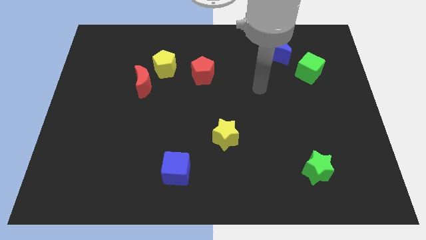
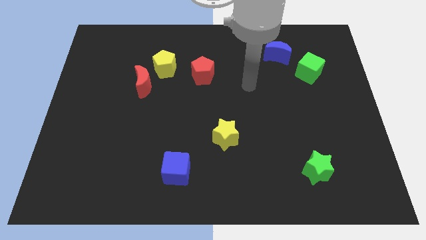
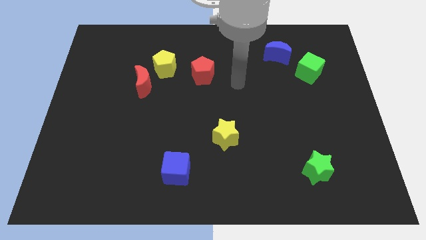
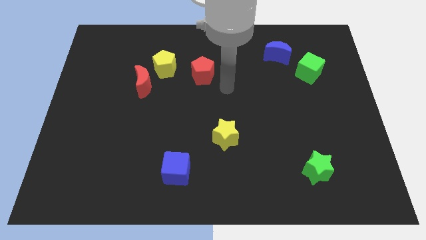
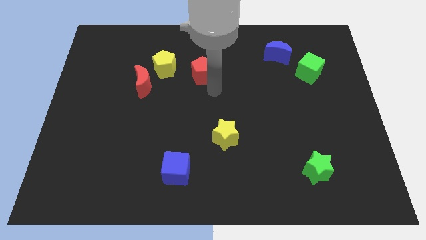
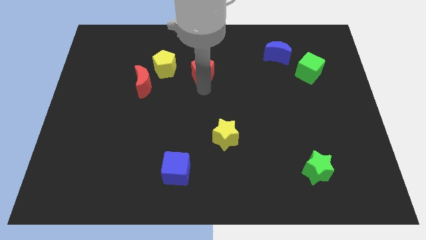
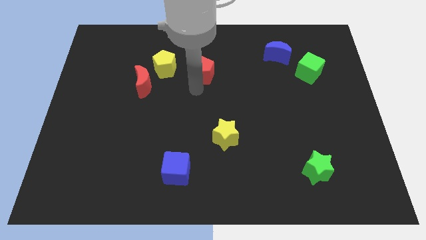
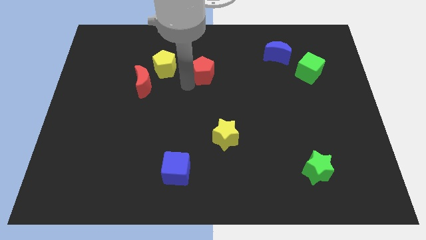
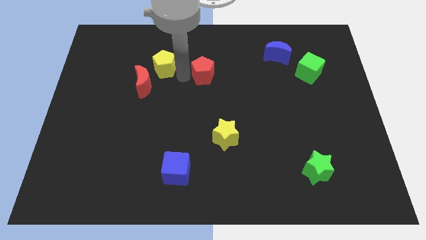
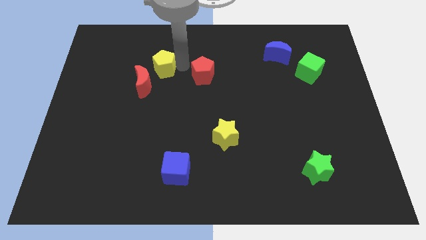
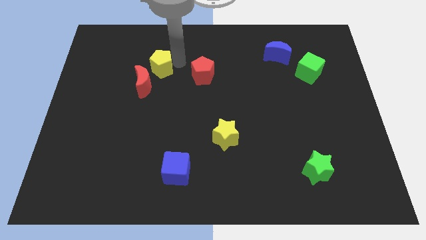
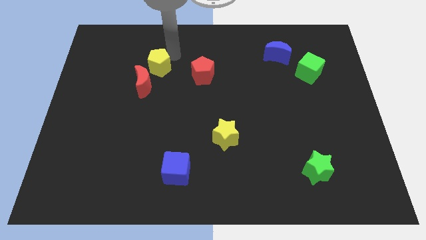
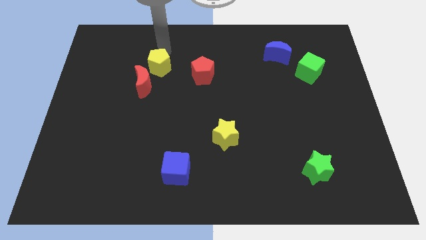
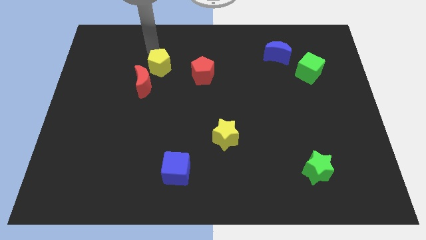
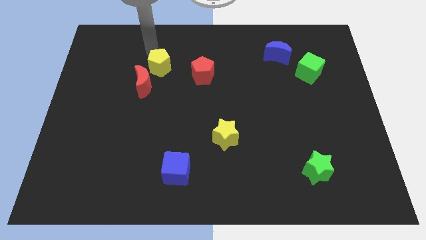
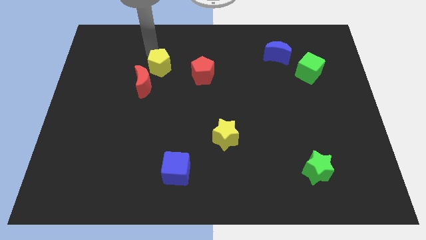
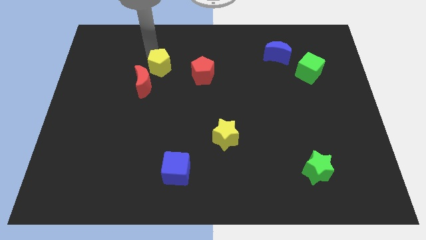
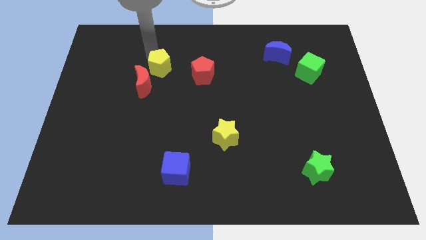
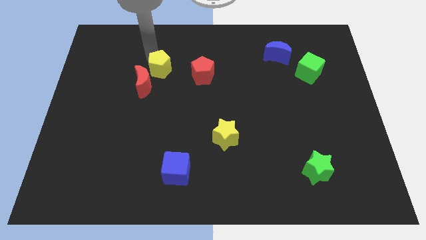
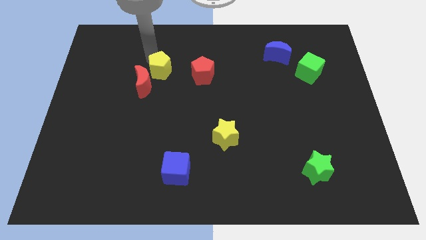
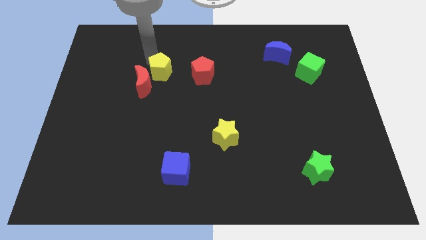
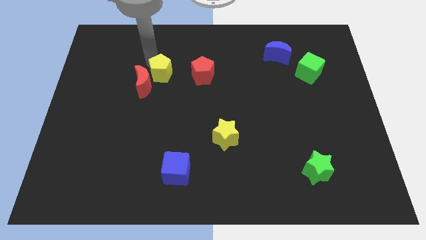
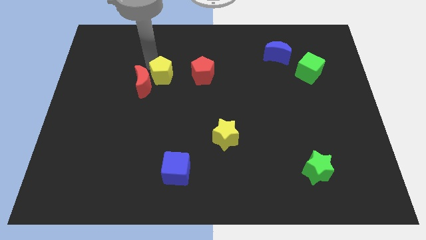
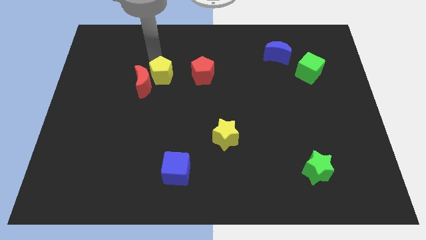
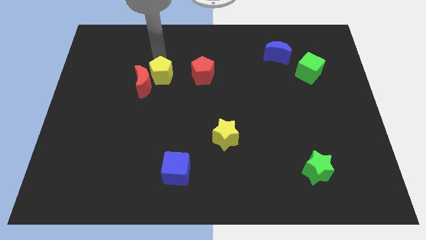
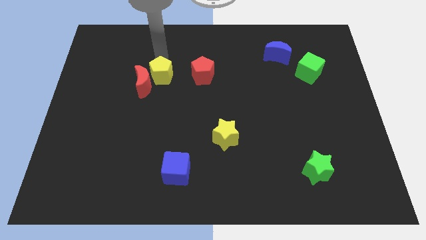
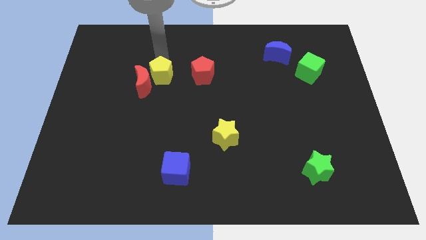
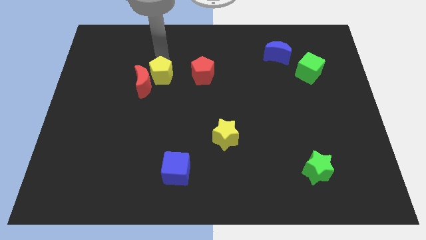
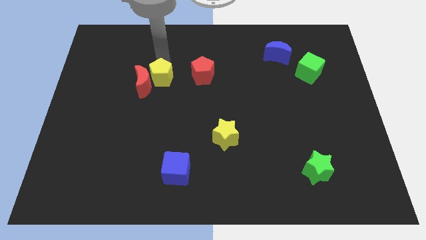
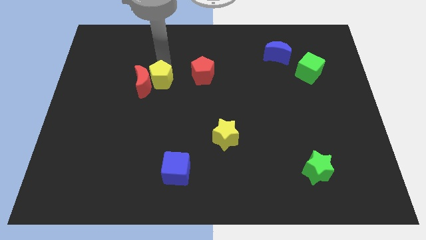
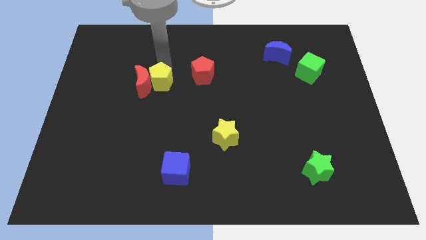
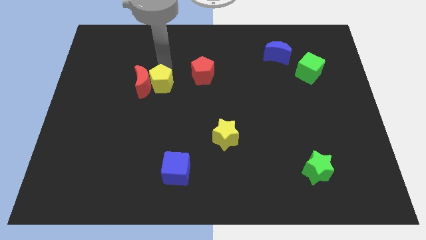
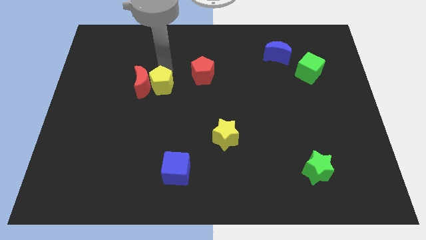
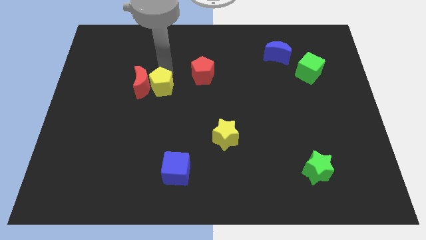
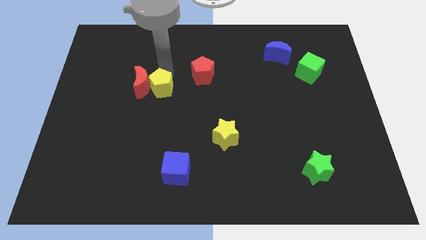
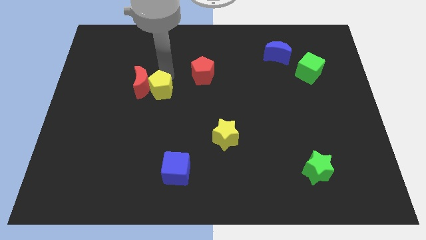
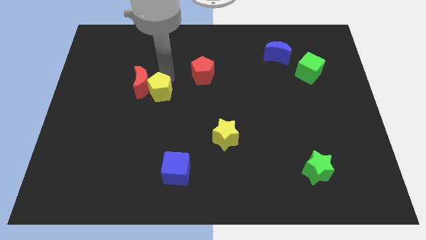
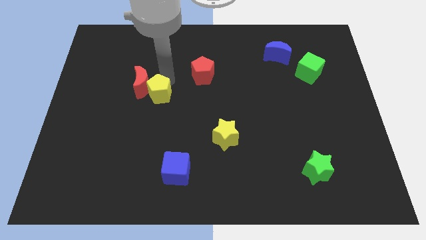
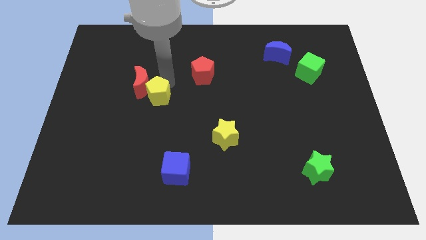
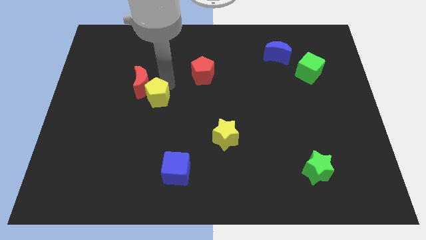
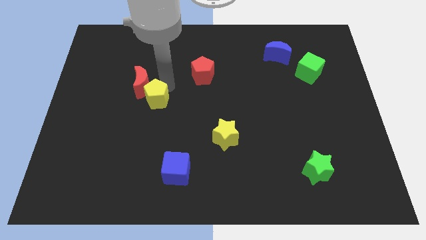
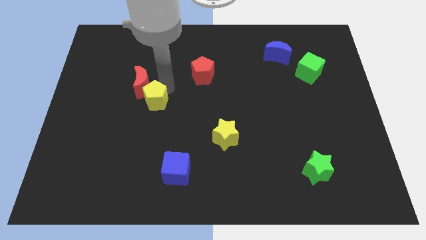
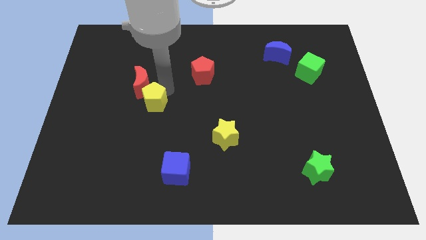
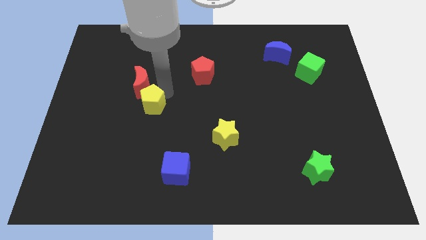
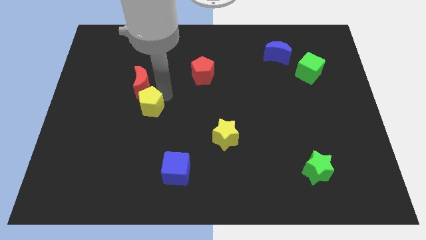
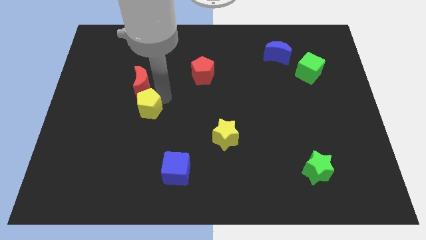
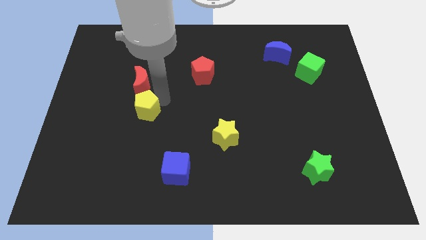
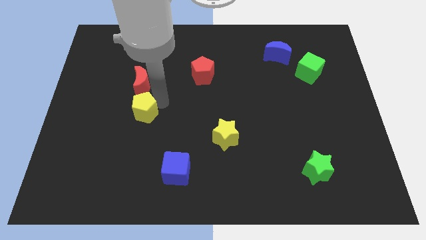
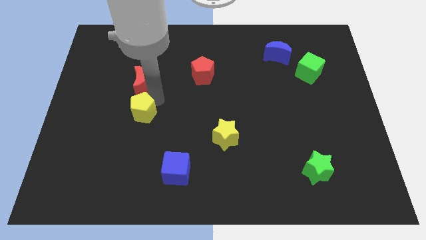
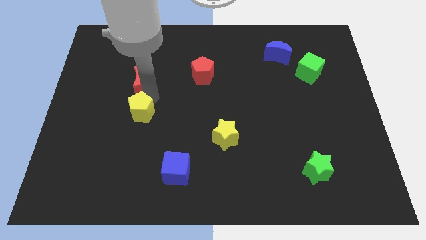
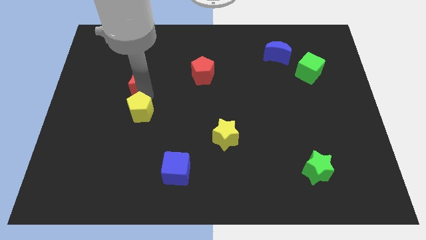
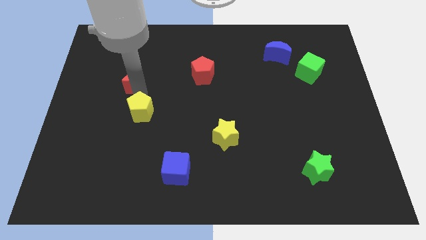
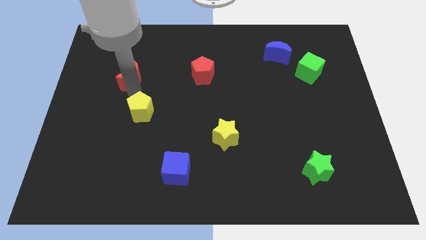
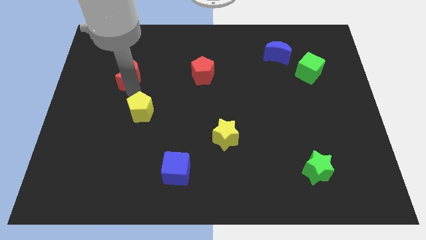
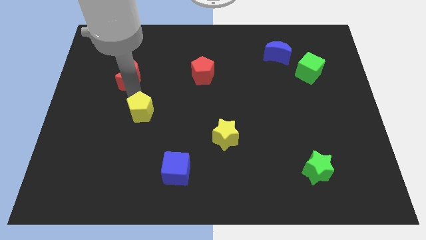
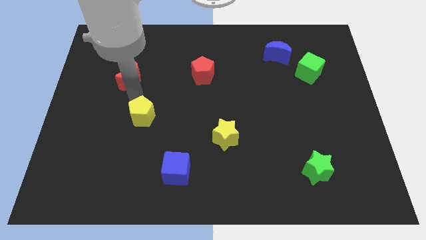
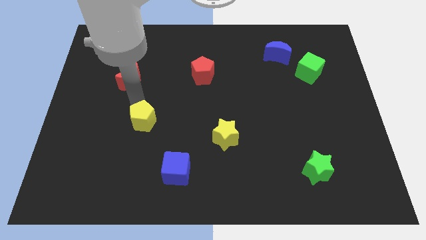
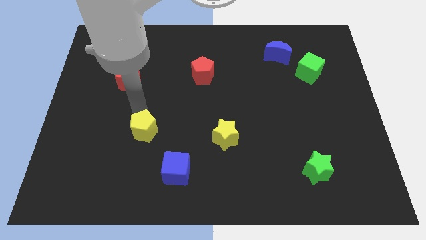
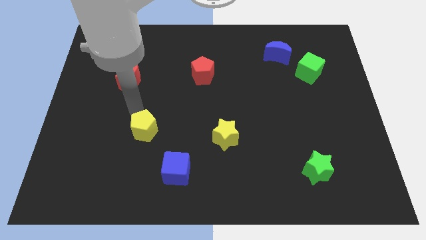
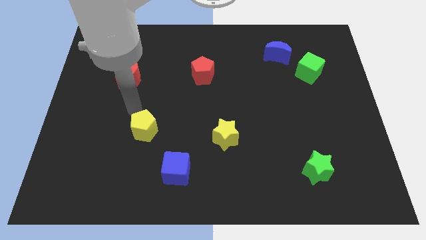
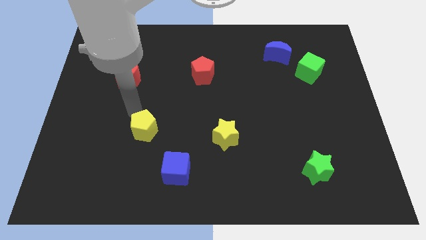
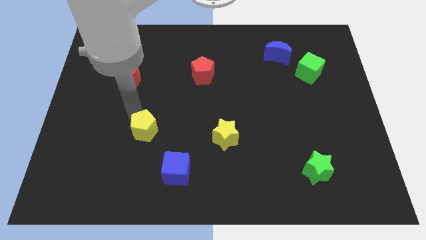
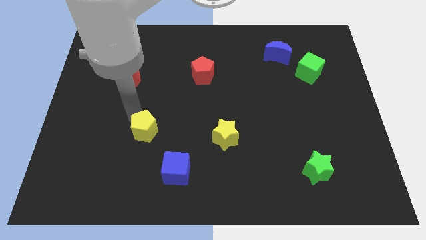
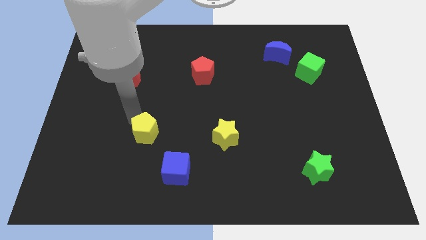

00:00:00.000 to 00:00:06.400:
put the yellow pentagon to the top left side of the blue cube
